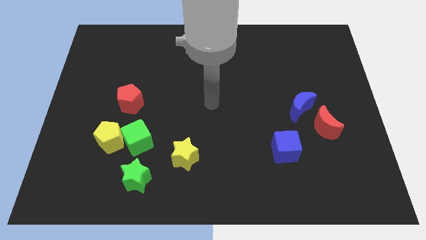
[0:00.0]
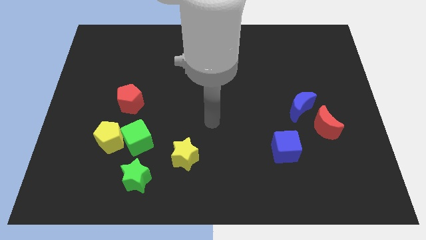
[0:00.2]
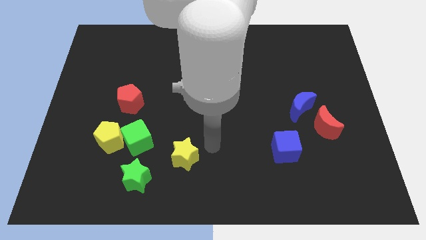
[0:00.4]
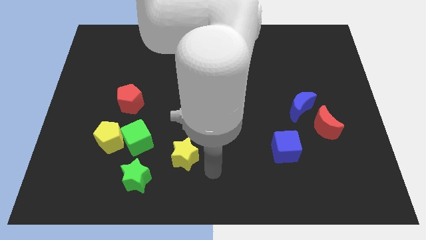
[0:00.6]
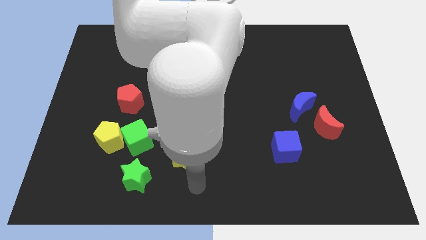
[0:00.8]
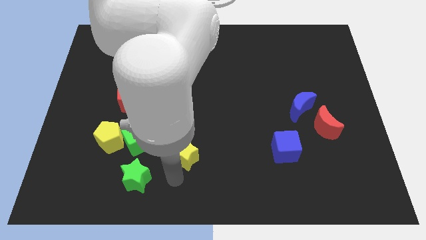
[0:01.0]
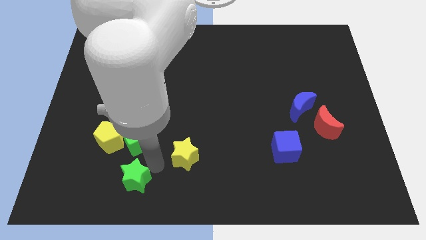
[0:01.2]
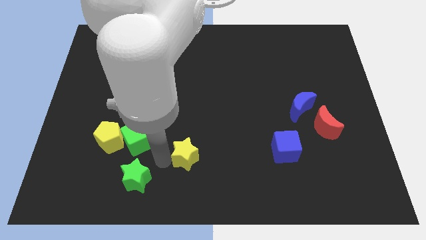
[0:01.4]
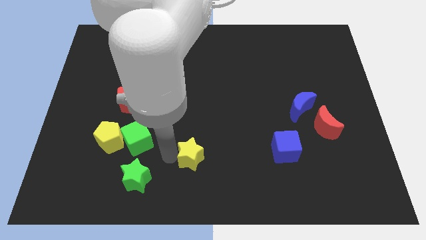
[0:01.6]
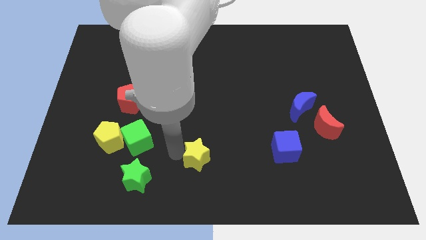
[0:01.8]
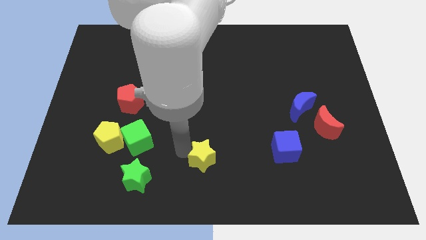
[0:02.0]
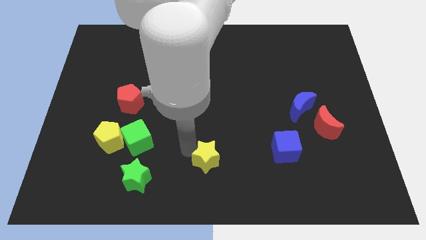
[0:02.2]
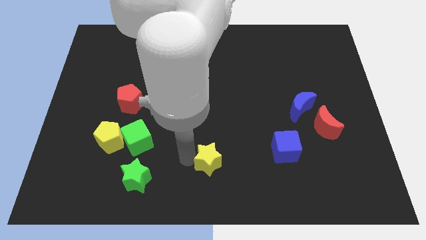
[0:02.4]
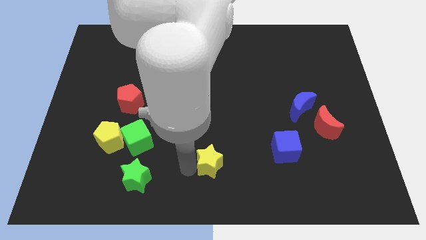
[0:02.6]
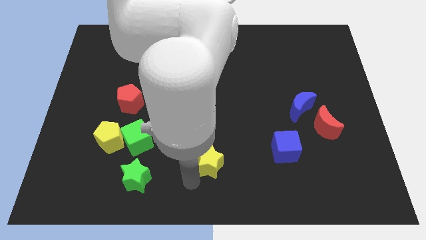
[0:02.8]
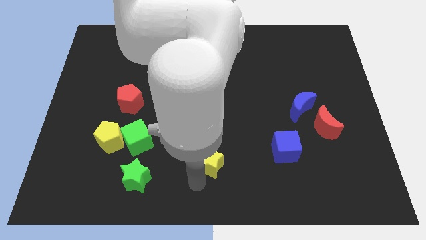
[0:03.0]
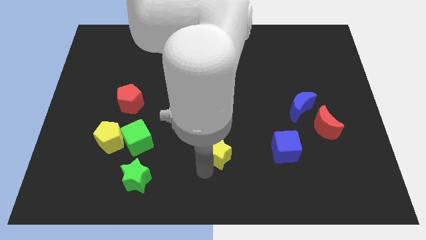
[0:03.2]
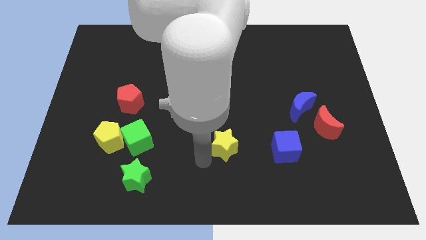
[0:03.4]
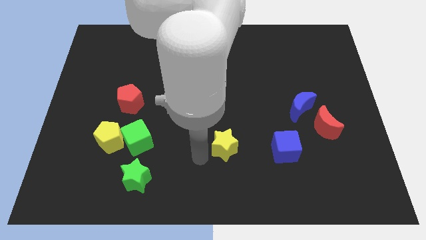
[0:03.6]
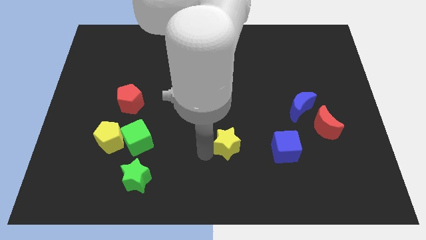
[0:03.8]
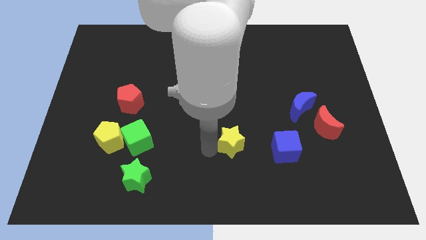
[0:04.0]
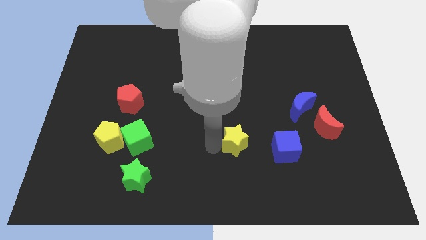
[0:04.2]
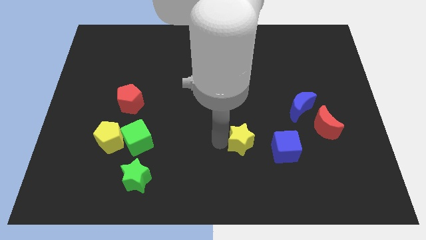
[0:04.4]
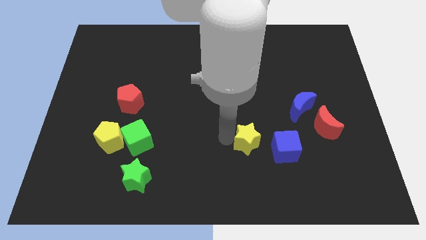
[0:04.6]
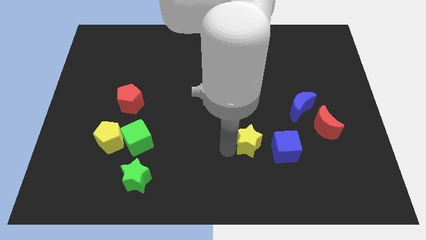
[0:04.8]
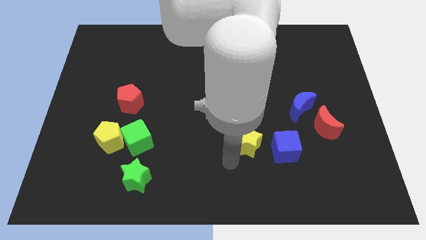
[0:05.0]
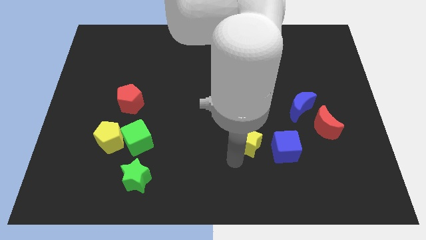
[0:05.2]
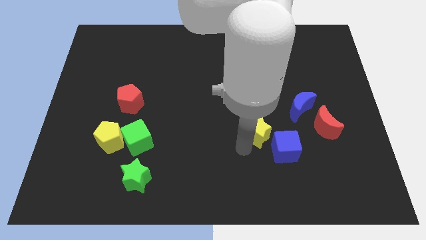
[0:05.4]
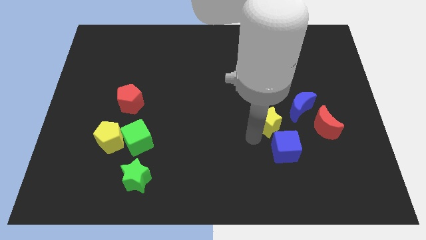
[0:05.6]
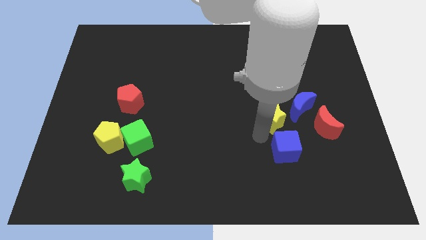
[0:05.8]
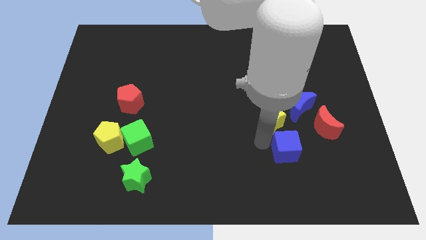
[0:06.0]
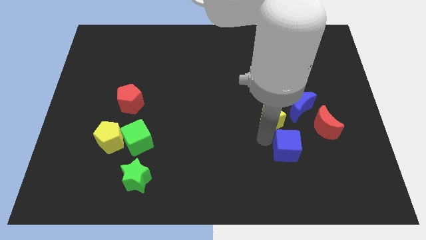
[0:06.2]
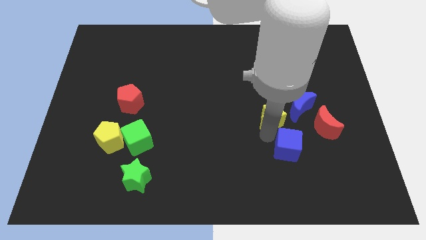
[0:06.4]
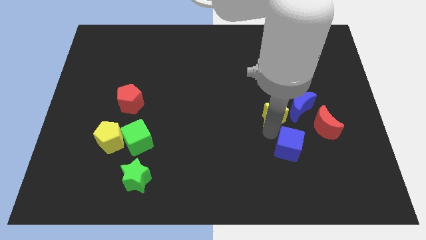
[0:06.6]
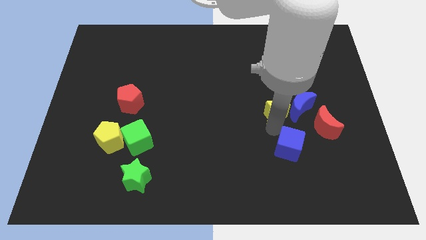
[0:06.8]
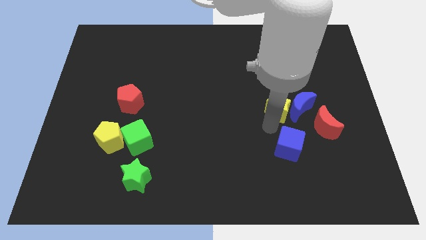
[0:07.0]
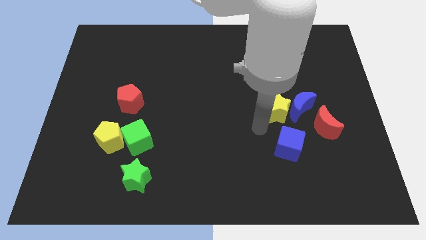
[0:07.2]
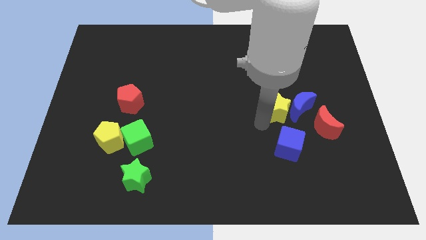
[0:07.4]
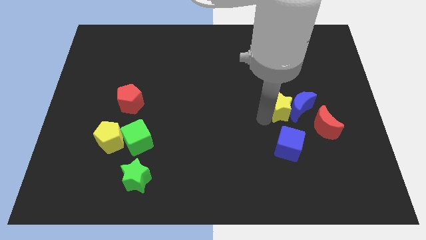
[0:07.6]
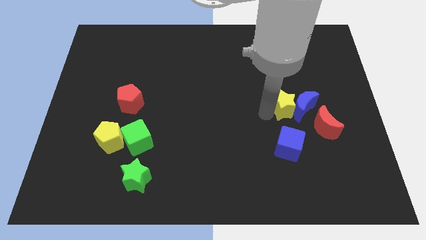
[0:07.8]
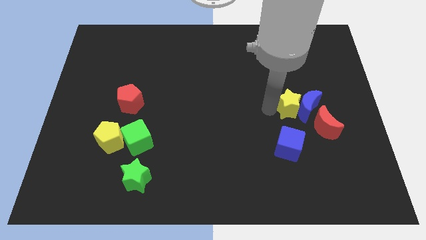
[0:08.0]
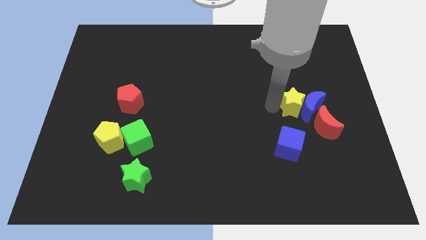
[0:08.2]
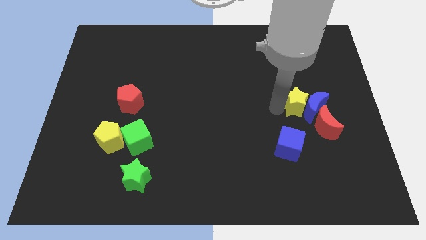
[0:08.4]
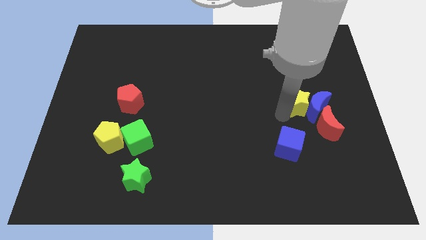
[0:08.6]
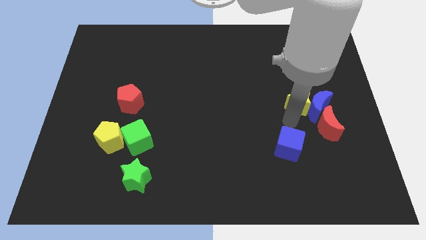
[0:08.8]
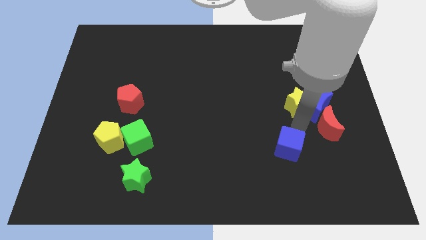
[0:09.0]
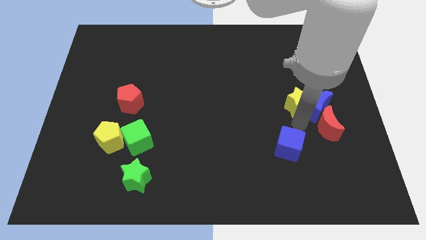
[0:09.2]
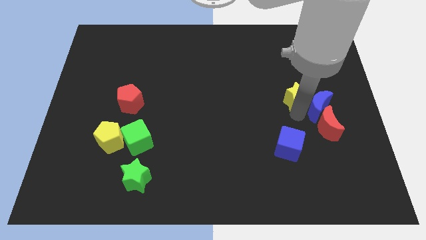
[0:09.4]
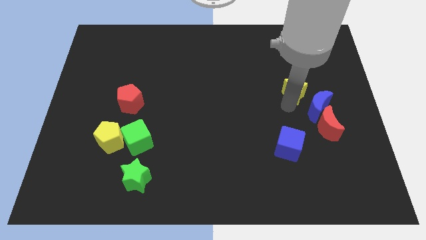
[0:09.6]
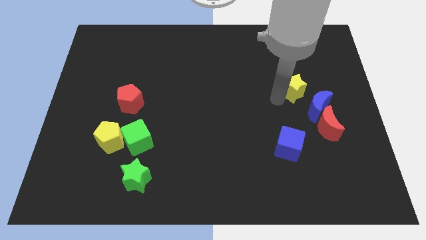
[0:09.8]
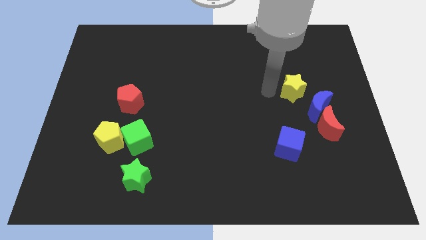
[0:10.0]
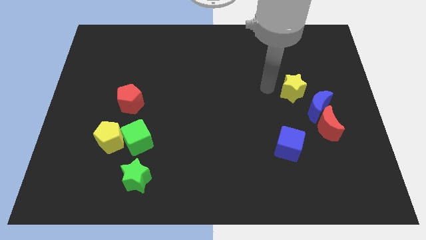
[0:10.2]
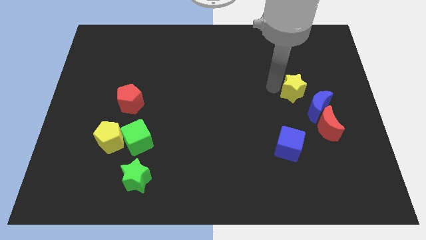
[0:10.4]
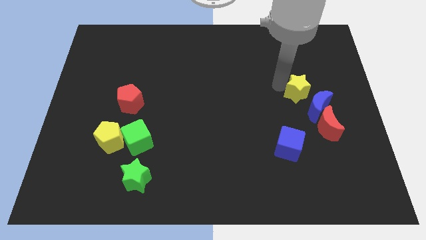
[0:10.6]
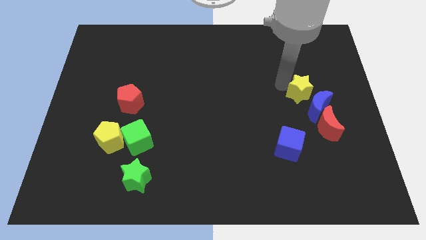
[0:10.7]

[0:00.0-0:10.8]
slide the yellow star to the top side of the red moon

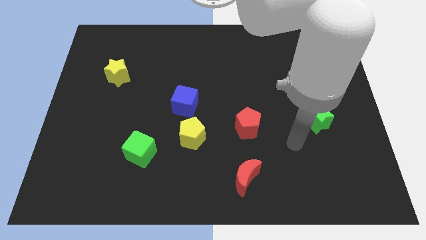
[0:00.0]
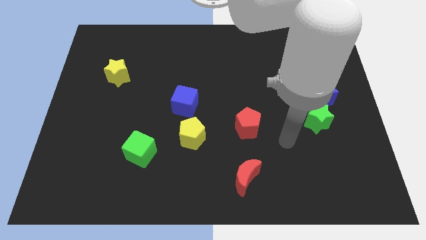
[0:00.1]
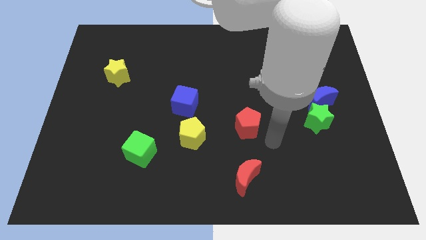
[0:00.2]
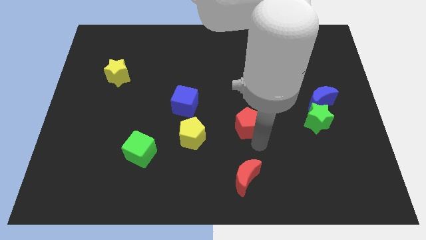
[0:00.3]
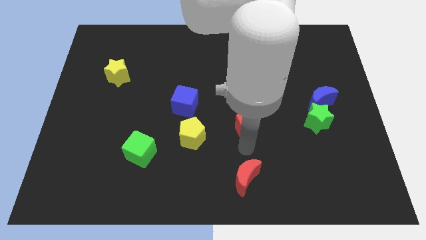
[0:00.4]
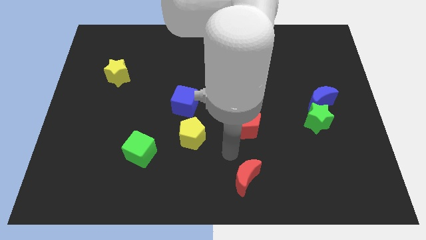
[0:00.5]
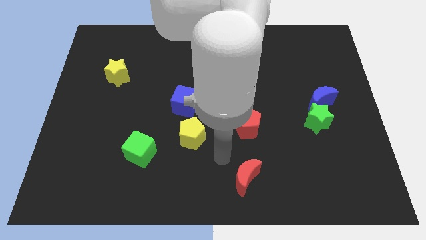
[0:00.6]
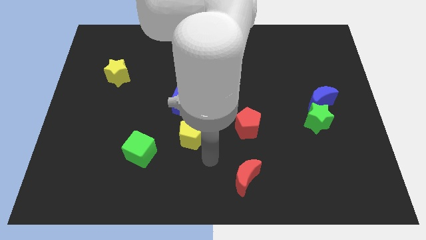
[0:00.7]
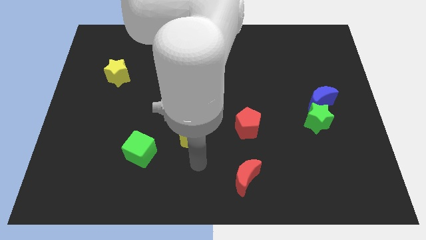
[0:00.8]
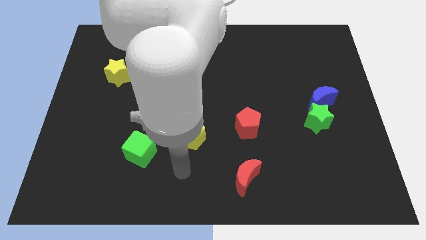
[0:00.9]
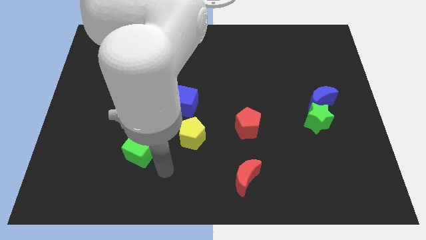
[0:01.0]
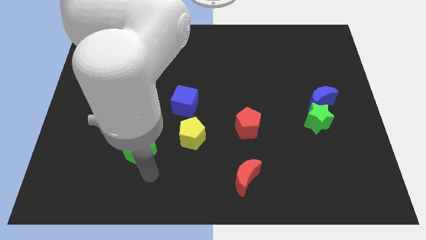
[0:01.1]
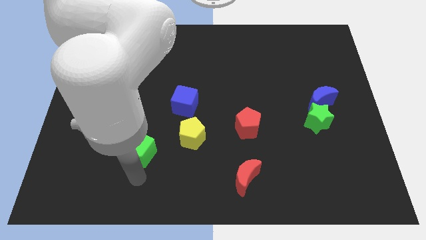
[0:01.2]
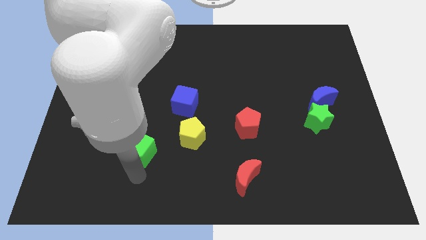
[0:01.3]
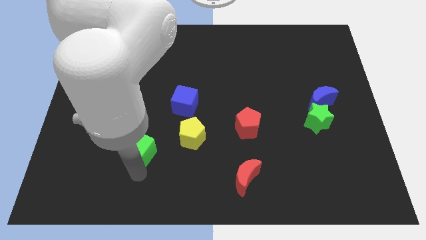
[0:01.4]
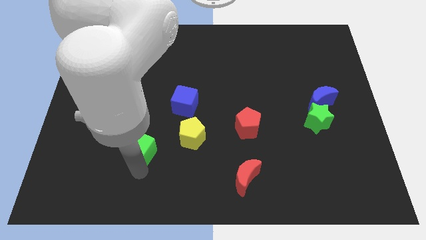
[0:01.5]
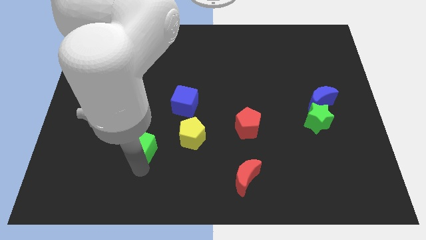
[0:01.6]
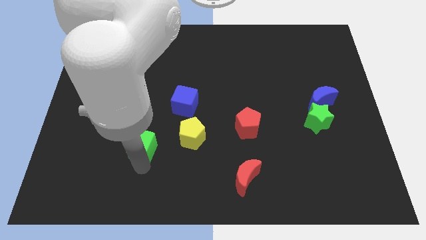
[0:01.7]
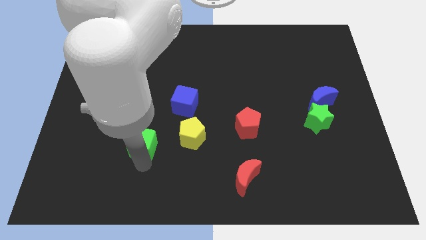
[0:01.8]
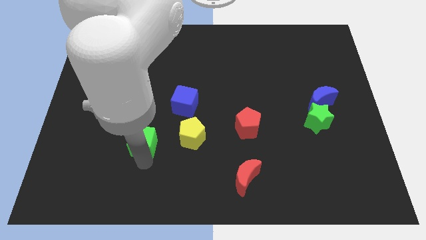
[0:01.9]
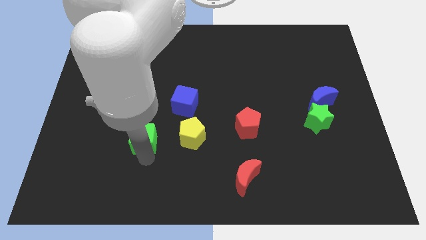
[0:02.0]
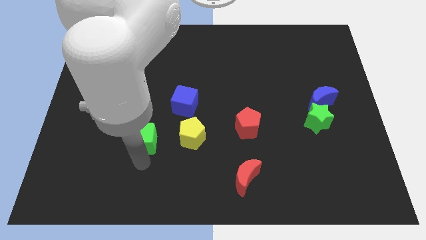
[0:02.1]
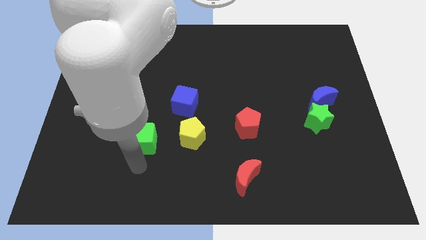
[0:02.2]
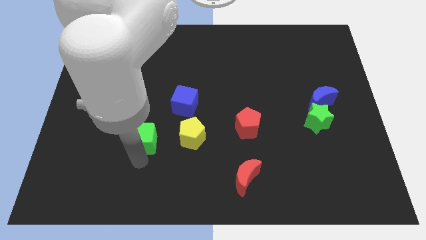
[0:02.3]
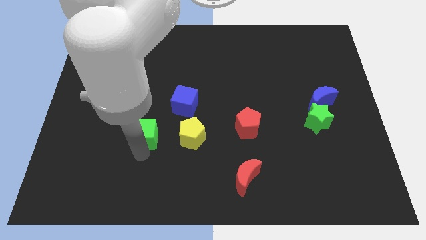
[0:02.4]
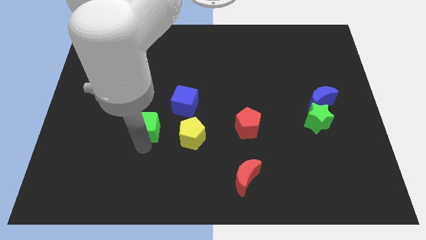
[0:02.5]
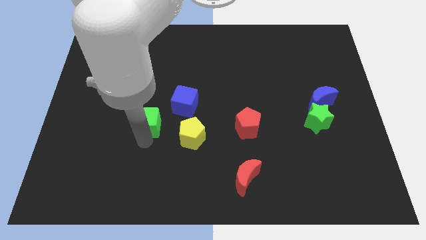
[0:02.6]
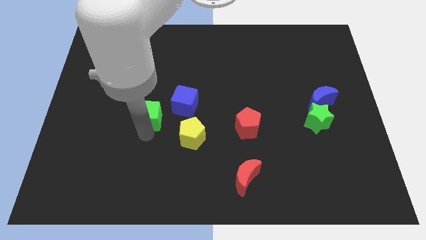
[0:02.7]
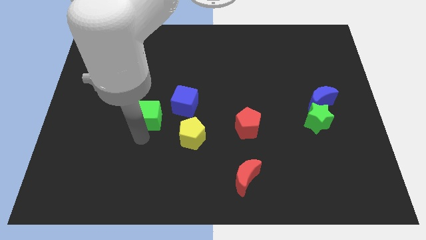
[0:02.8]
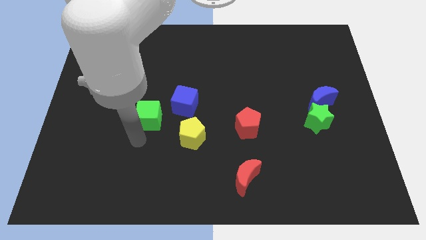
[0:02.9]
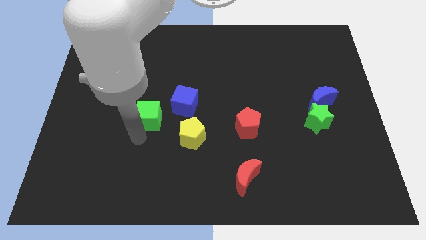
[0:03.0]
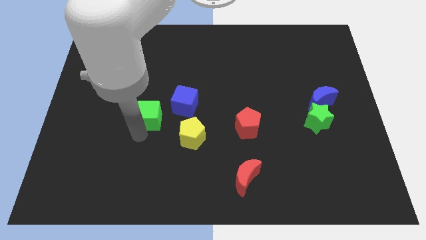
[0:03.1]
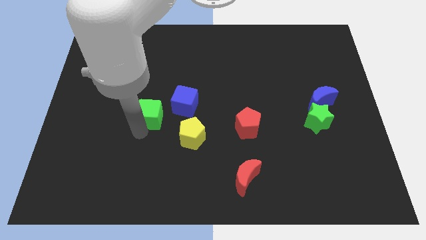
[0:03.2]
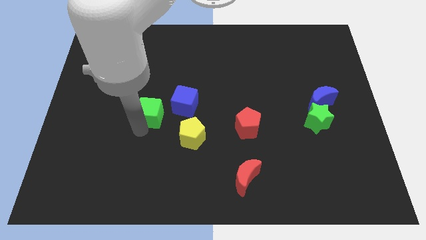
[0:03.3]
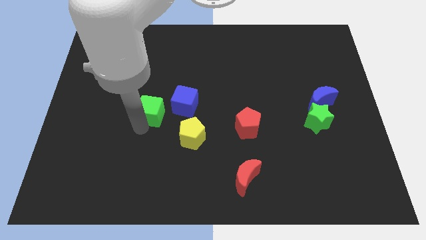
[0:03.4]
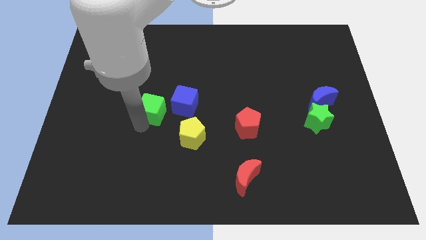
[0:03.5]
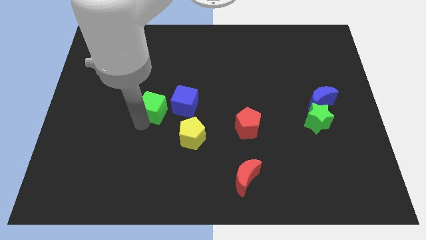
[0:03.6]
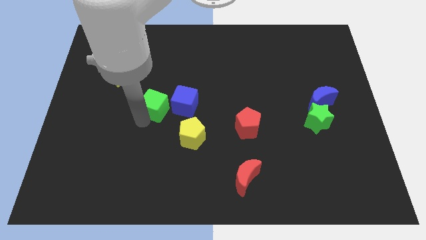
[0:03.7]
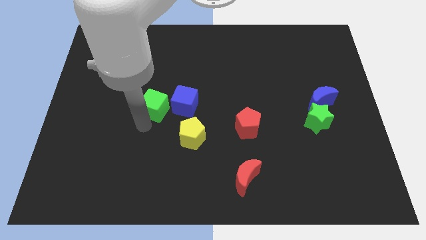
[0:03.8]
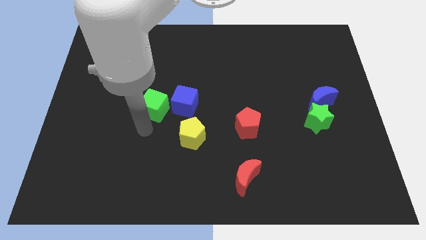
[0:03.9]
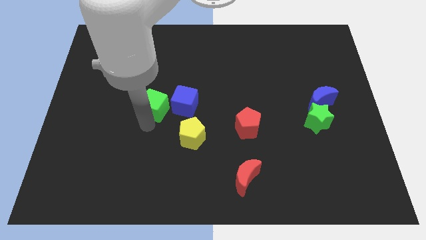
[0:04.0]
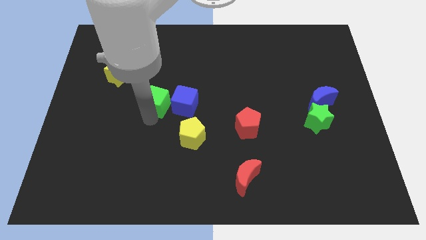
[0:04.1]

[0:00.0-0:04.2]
move the green cube diagonally up and to the left of the blue cube
